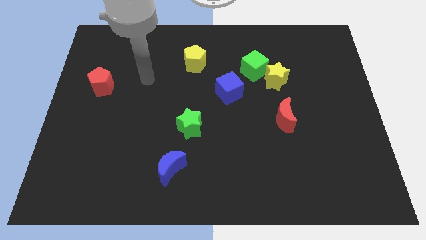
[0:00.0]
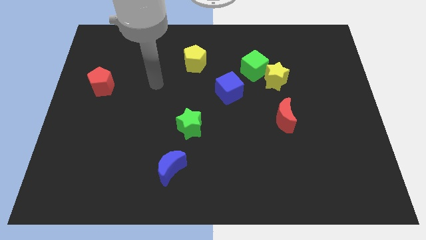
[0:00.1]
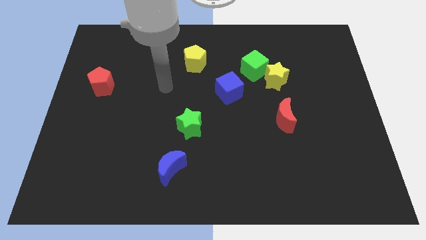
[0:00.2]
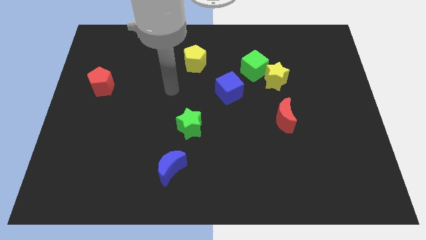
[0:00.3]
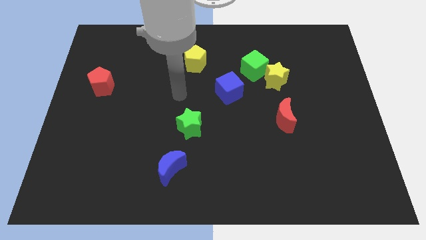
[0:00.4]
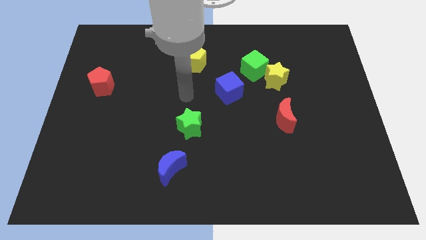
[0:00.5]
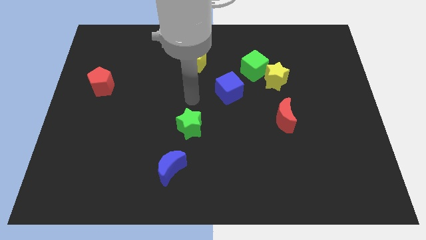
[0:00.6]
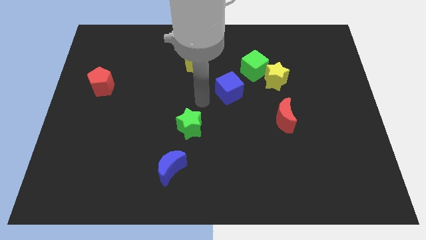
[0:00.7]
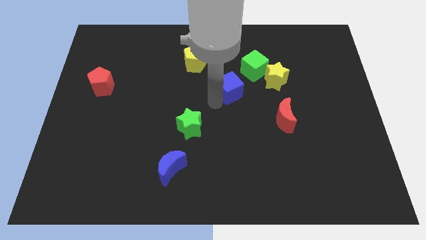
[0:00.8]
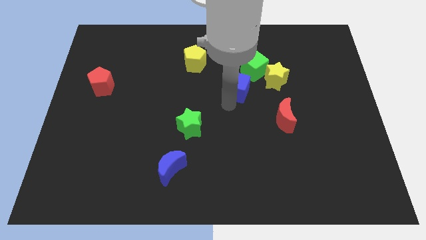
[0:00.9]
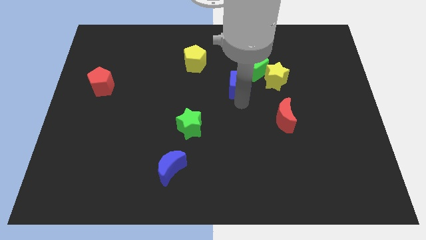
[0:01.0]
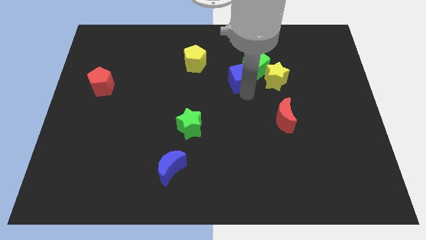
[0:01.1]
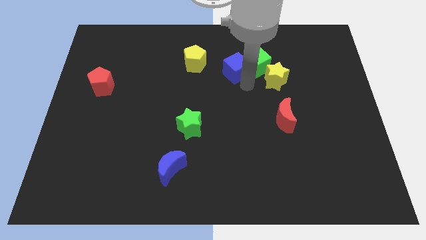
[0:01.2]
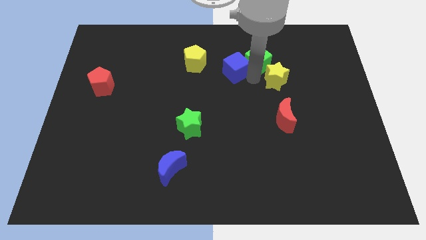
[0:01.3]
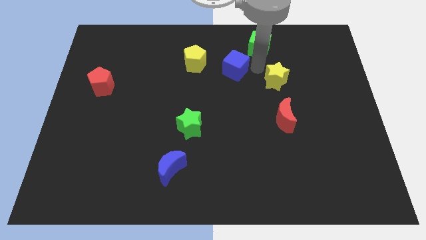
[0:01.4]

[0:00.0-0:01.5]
pull the yellow star apart from the green cube

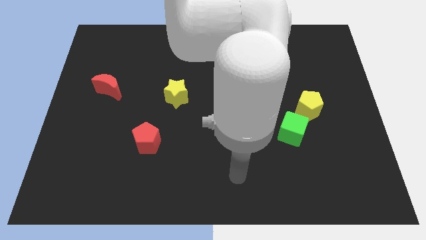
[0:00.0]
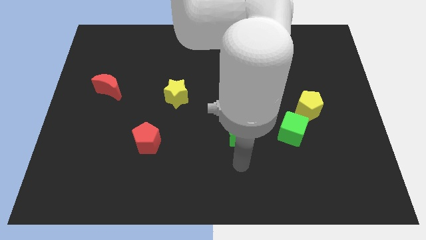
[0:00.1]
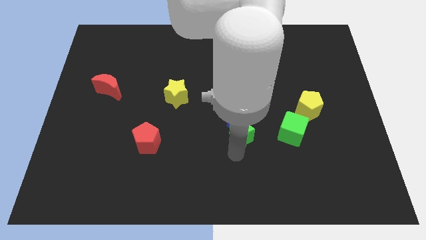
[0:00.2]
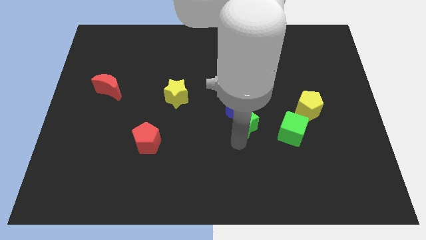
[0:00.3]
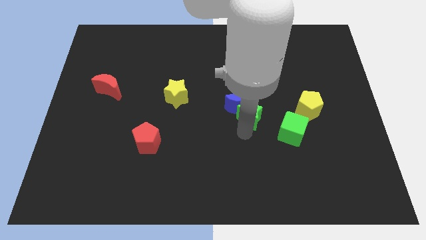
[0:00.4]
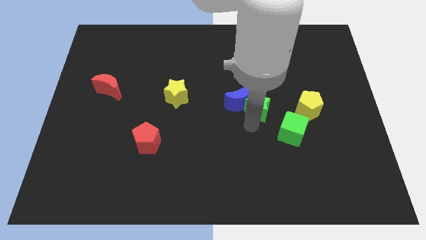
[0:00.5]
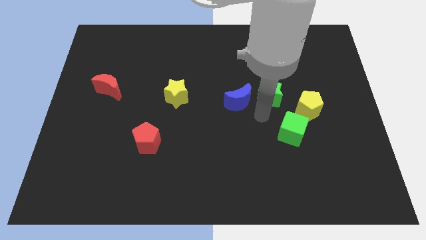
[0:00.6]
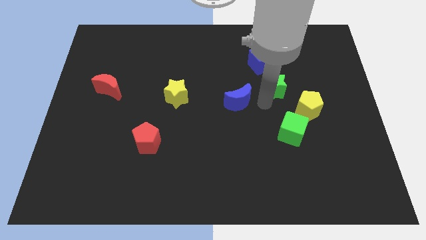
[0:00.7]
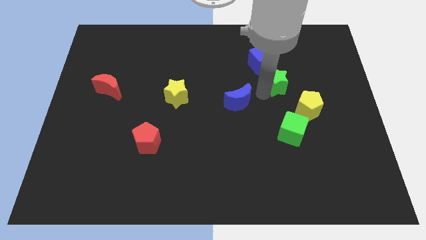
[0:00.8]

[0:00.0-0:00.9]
pull the blue moon apart from the green star

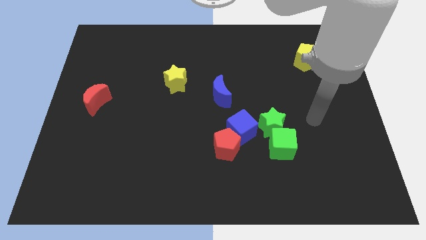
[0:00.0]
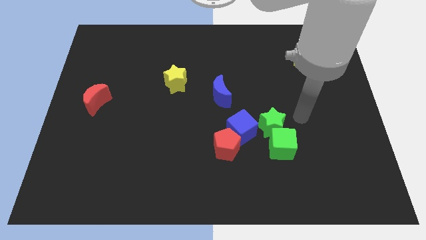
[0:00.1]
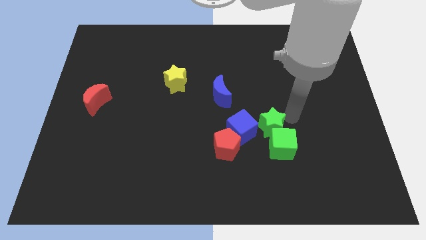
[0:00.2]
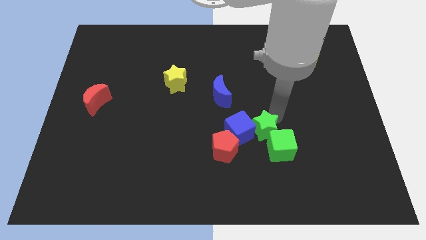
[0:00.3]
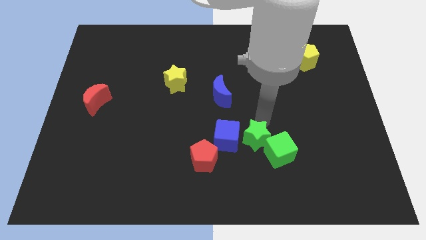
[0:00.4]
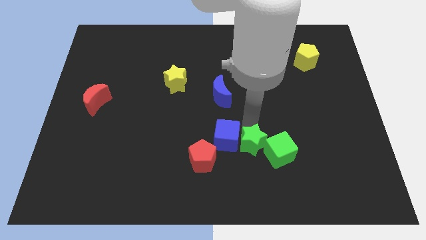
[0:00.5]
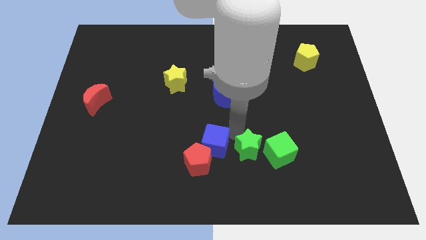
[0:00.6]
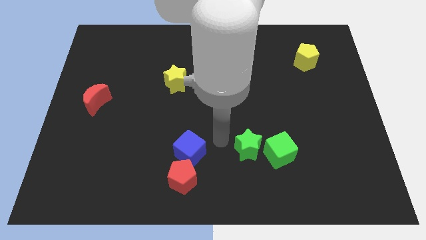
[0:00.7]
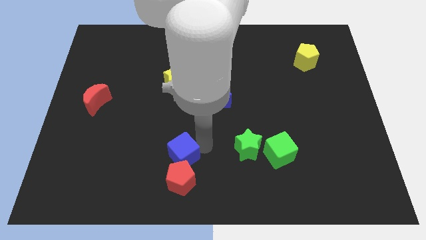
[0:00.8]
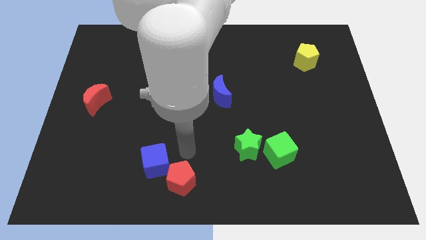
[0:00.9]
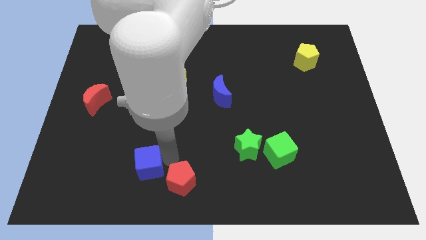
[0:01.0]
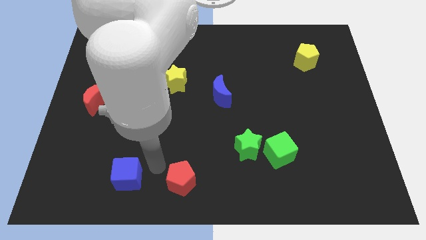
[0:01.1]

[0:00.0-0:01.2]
separate the red pentagon from the blue cube

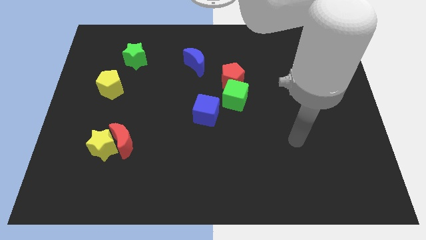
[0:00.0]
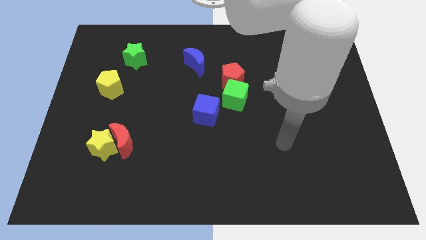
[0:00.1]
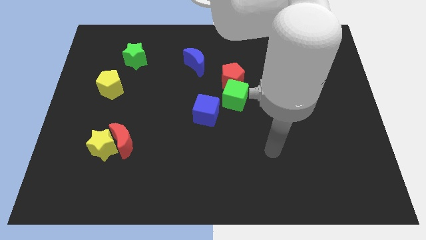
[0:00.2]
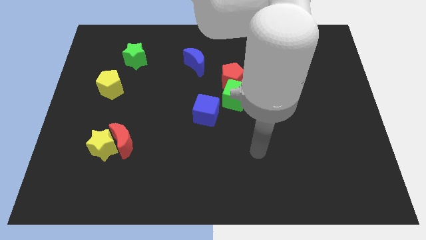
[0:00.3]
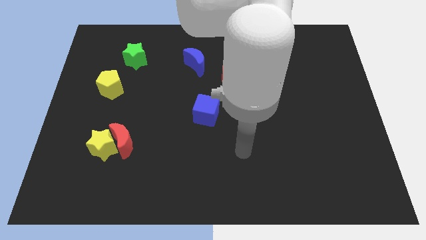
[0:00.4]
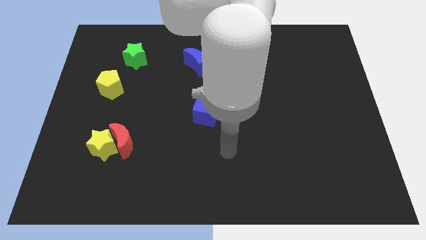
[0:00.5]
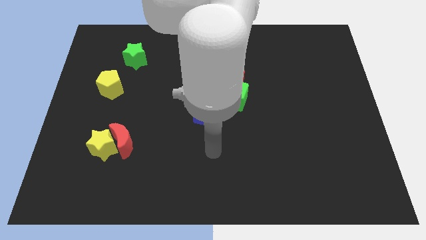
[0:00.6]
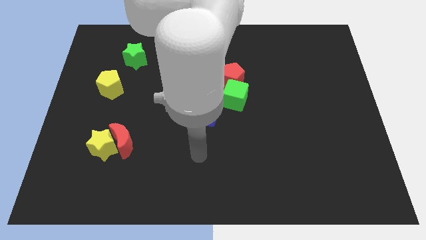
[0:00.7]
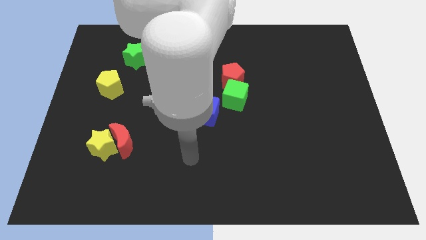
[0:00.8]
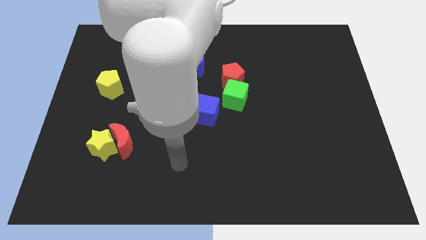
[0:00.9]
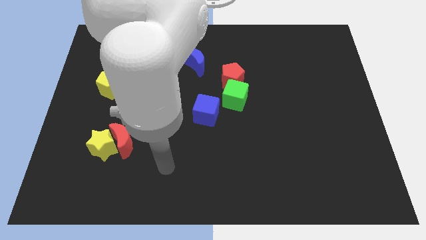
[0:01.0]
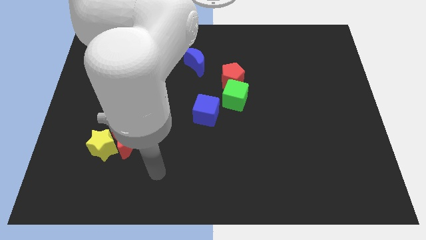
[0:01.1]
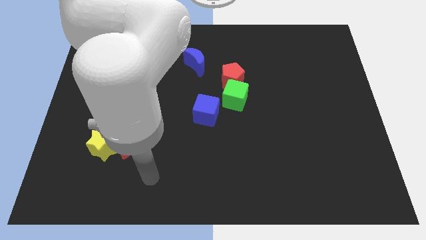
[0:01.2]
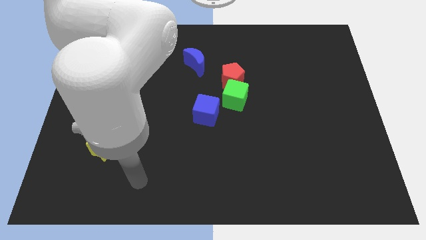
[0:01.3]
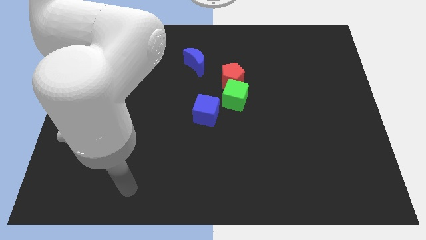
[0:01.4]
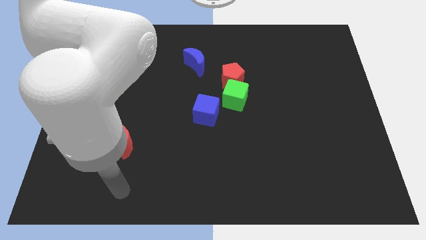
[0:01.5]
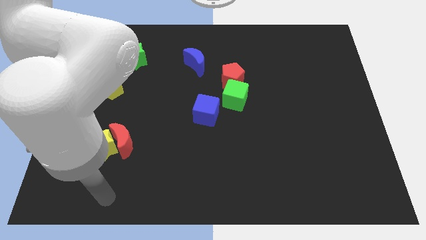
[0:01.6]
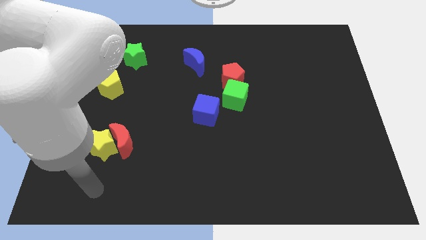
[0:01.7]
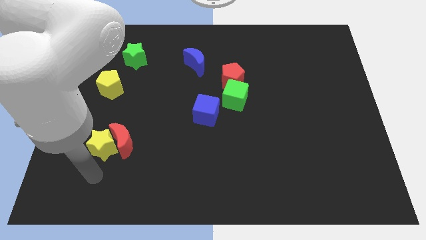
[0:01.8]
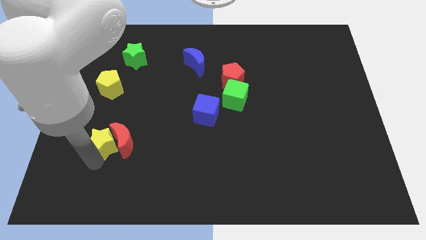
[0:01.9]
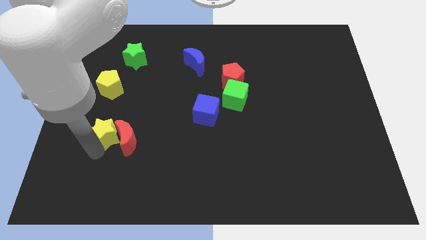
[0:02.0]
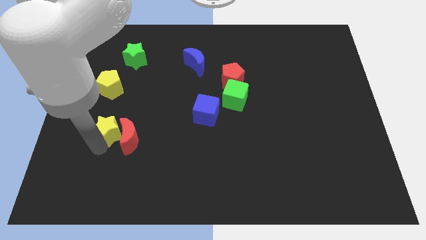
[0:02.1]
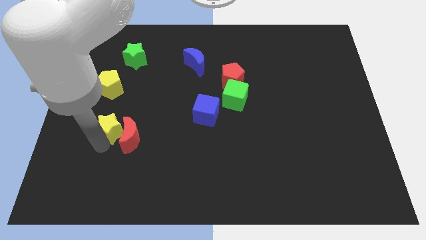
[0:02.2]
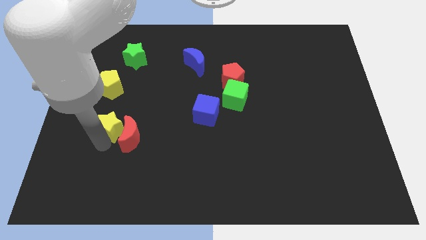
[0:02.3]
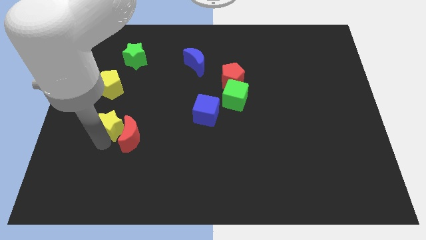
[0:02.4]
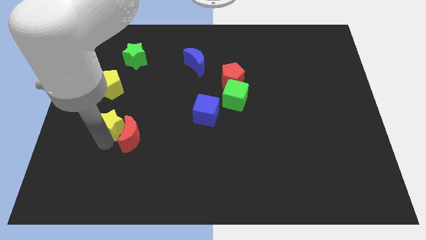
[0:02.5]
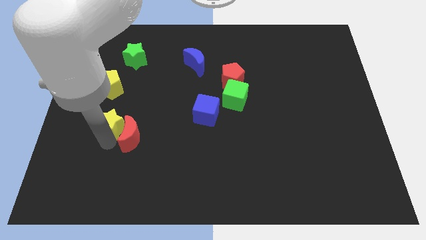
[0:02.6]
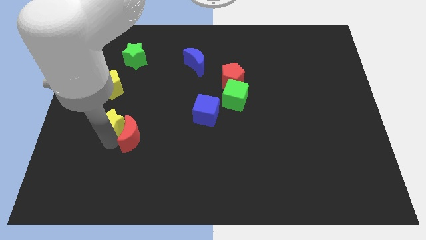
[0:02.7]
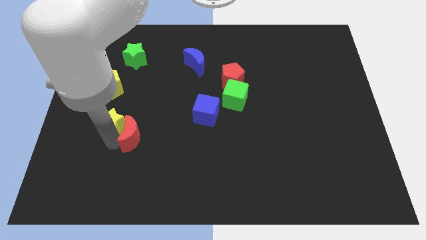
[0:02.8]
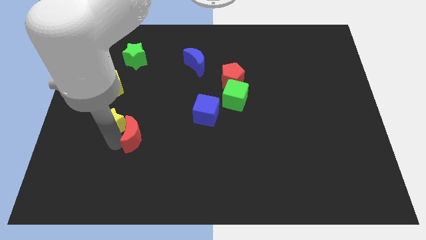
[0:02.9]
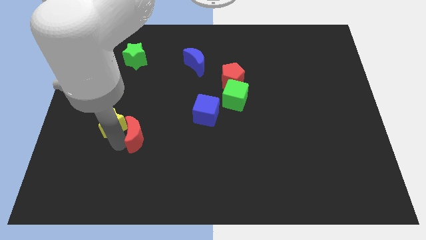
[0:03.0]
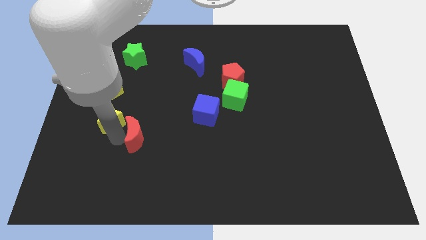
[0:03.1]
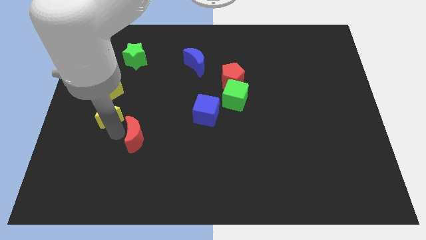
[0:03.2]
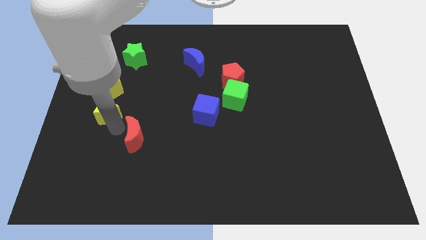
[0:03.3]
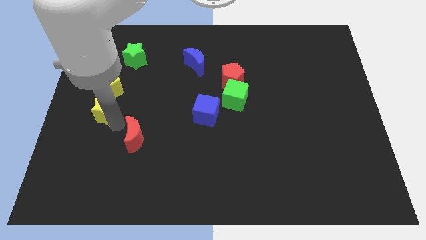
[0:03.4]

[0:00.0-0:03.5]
move the red moon away from the yellow star

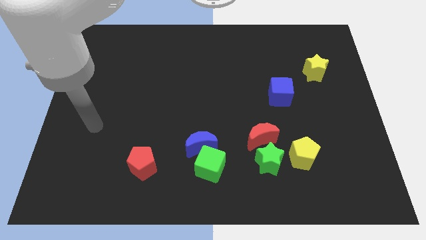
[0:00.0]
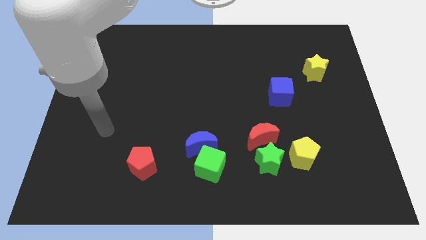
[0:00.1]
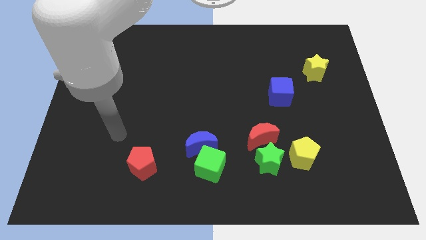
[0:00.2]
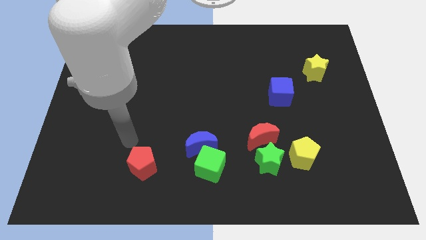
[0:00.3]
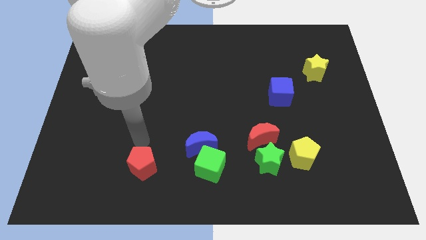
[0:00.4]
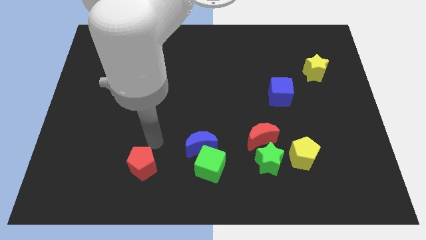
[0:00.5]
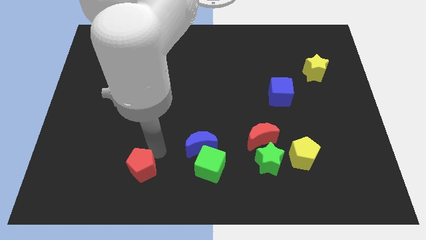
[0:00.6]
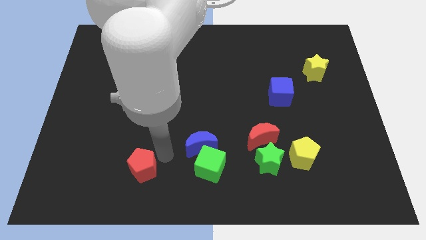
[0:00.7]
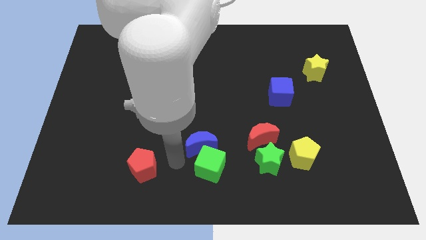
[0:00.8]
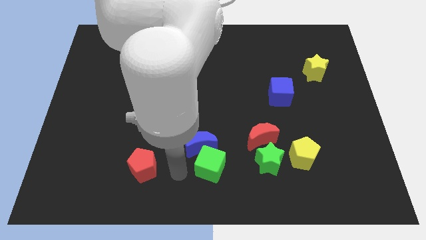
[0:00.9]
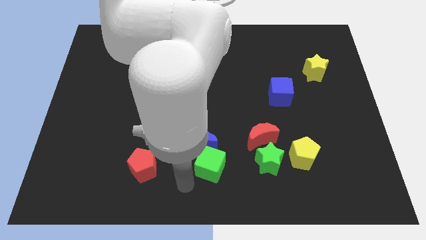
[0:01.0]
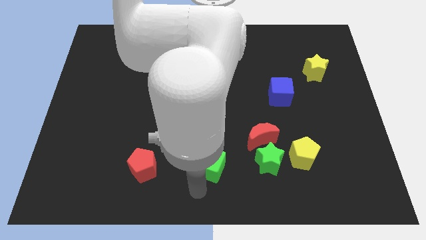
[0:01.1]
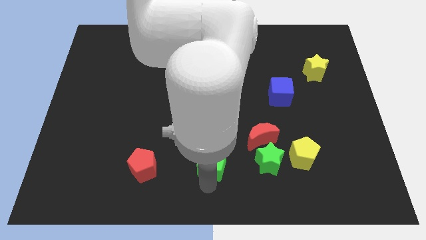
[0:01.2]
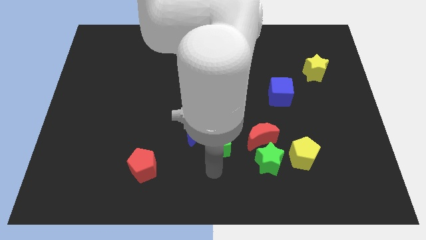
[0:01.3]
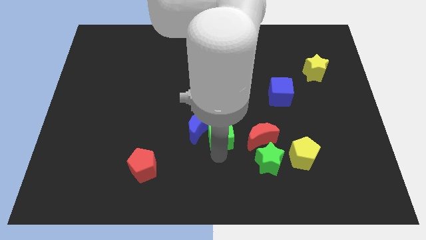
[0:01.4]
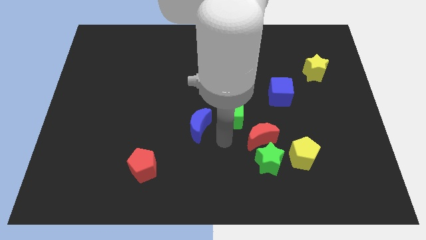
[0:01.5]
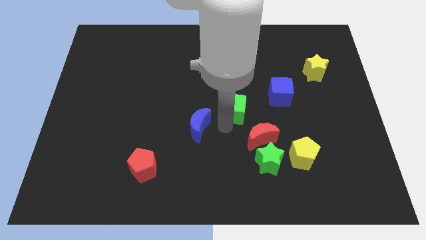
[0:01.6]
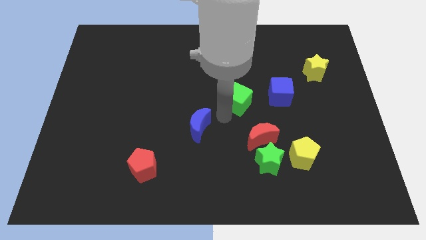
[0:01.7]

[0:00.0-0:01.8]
pull the blue moon apart from the green cube

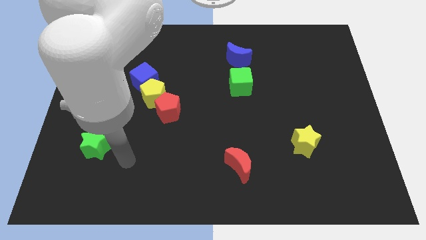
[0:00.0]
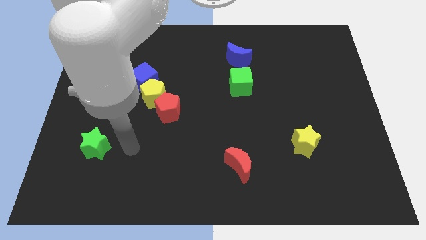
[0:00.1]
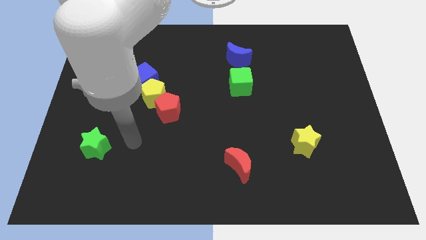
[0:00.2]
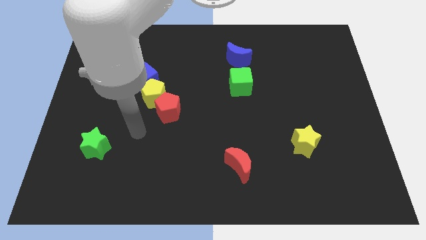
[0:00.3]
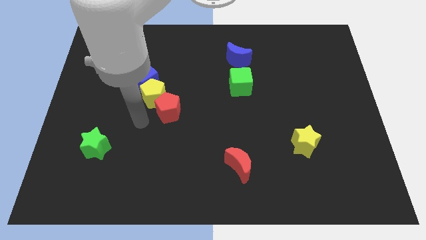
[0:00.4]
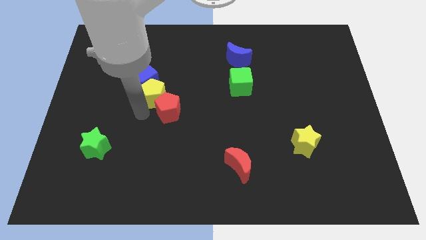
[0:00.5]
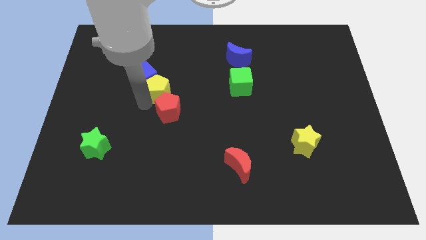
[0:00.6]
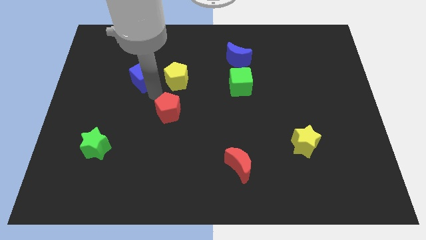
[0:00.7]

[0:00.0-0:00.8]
move the red pentagon away from the yellow pentagon
